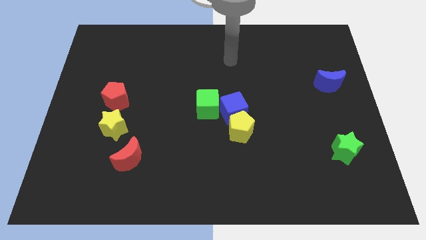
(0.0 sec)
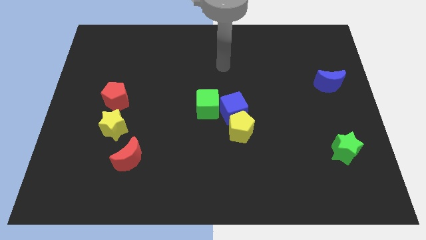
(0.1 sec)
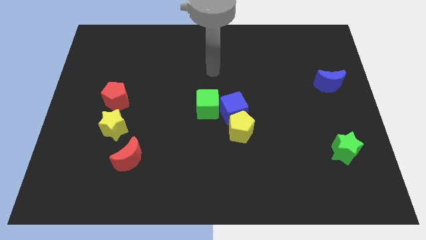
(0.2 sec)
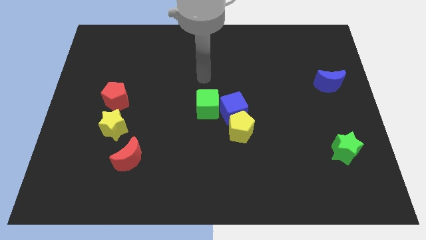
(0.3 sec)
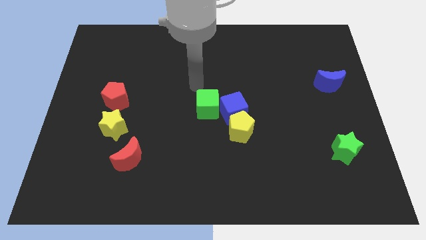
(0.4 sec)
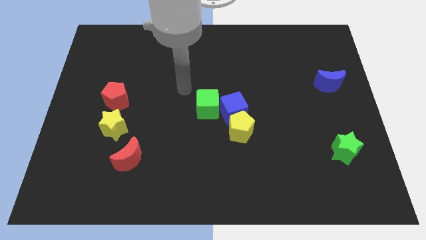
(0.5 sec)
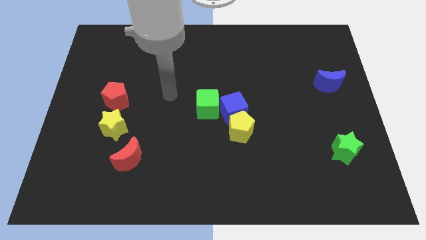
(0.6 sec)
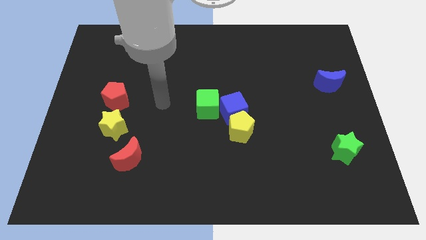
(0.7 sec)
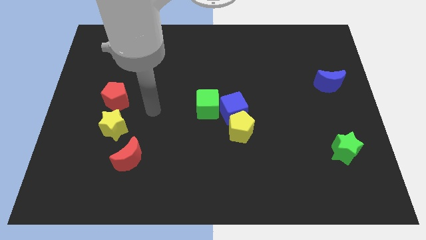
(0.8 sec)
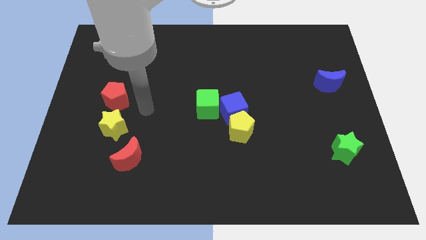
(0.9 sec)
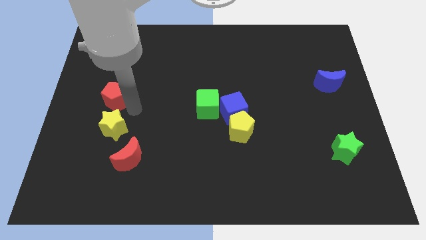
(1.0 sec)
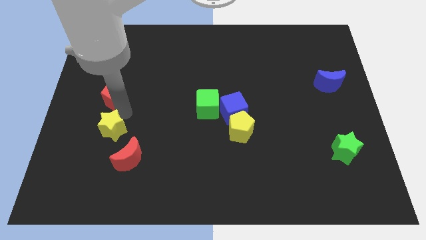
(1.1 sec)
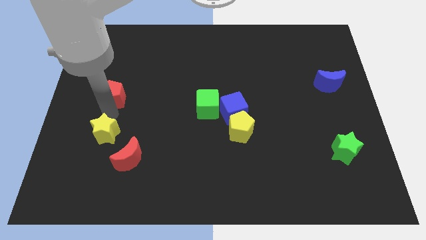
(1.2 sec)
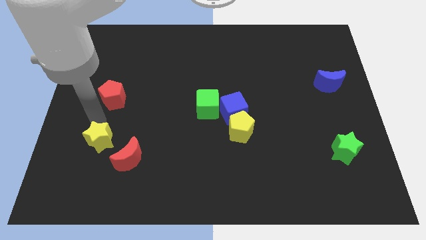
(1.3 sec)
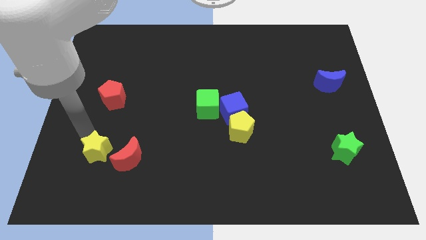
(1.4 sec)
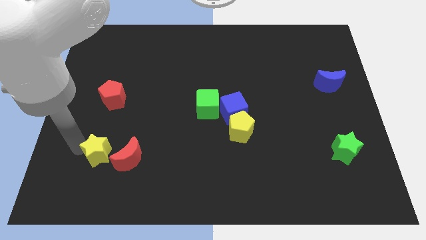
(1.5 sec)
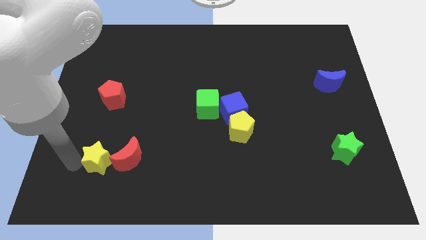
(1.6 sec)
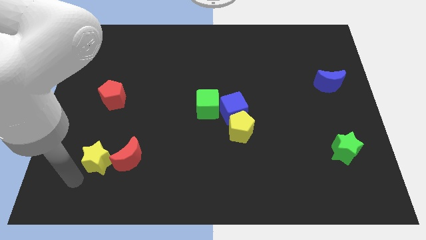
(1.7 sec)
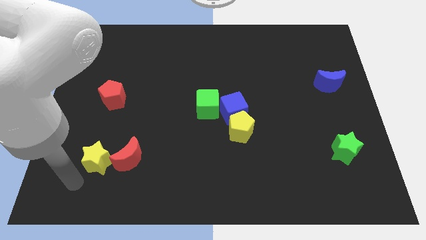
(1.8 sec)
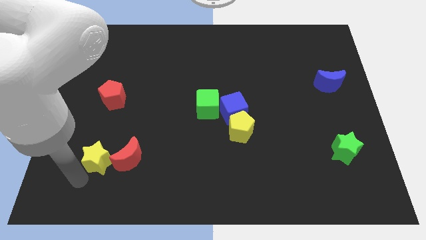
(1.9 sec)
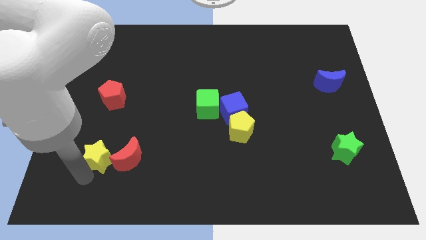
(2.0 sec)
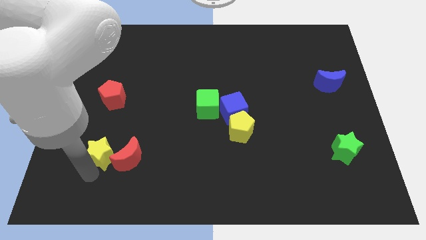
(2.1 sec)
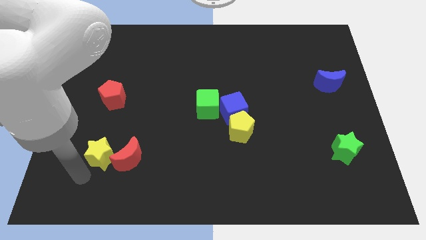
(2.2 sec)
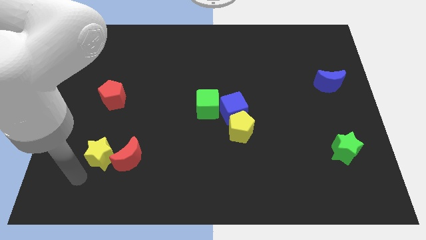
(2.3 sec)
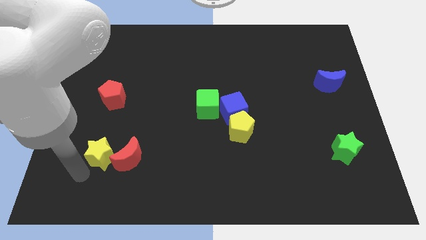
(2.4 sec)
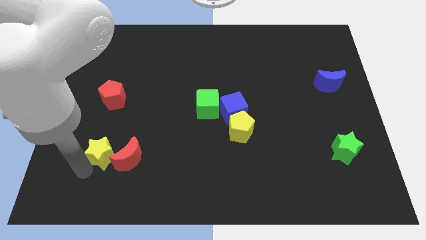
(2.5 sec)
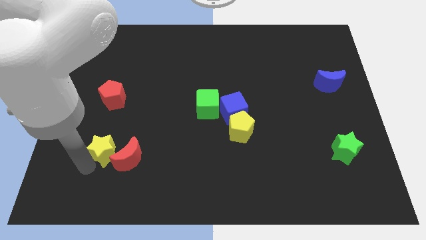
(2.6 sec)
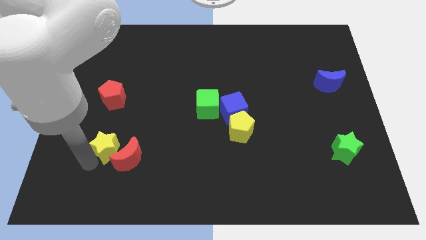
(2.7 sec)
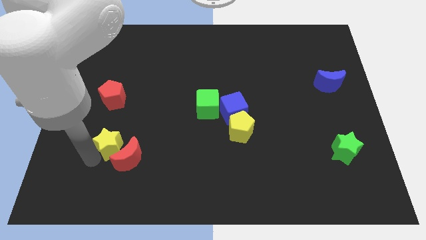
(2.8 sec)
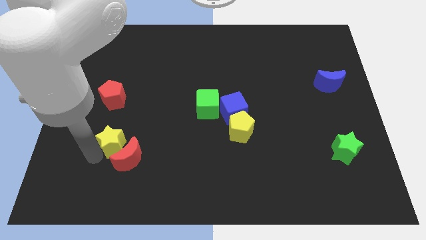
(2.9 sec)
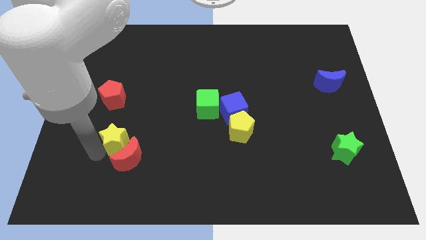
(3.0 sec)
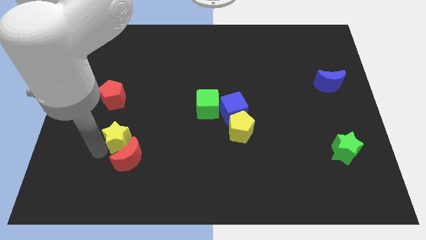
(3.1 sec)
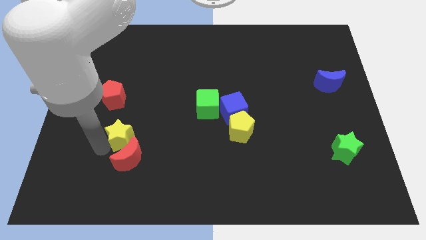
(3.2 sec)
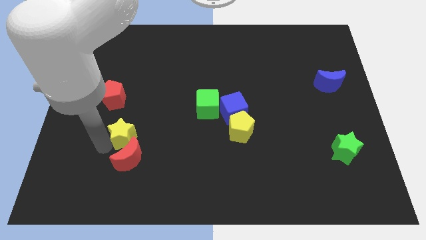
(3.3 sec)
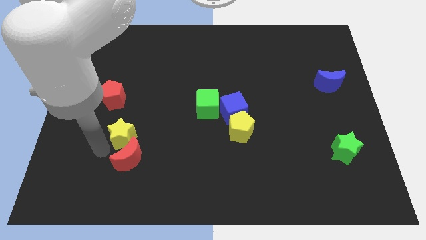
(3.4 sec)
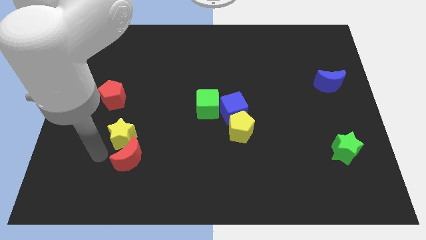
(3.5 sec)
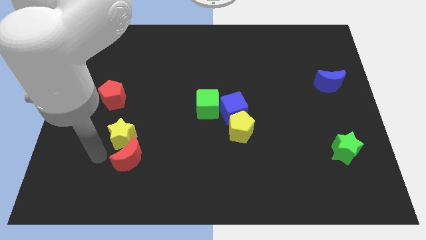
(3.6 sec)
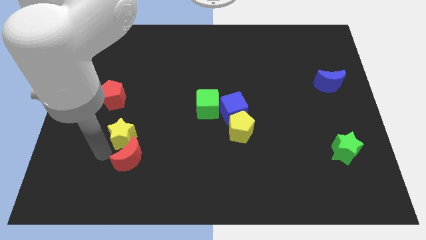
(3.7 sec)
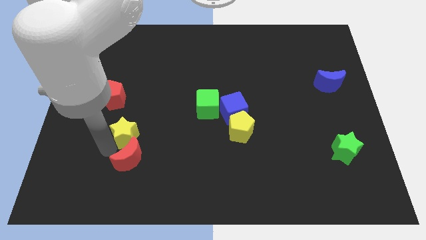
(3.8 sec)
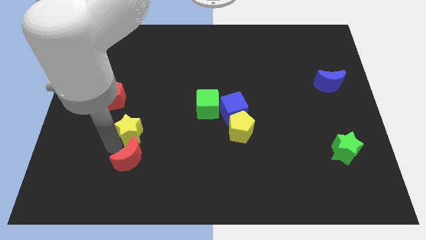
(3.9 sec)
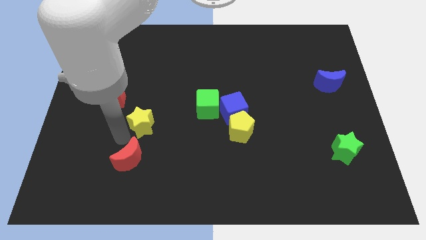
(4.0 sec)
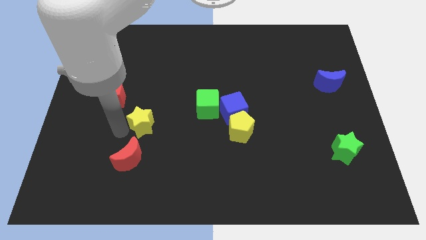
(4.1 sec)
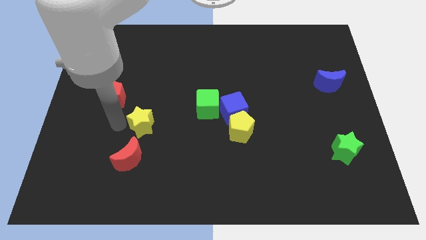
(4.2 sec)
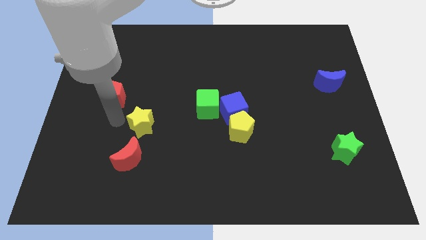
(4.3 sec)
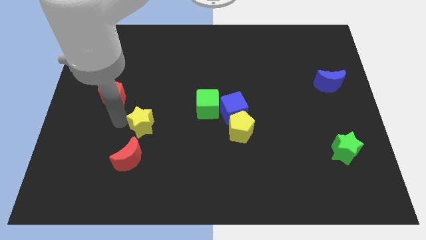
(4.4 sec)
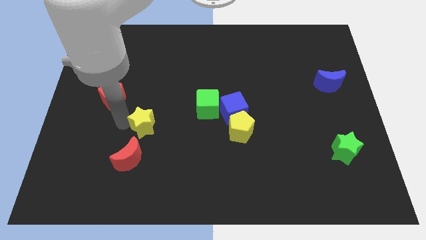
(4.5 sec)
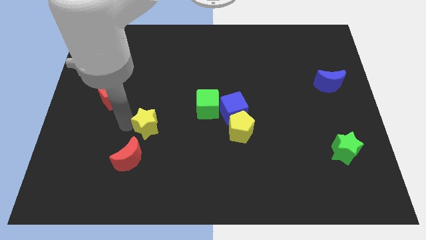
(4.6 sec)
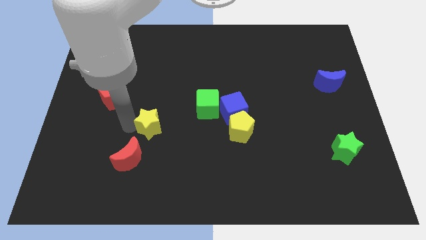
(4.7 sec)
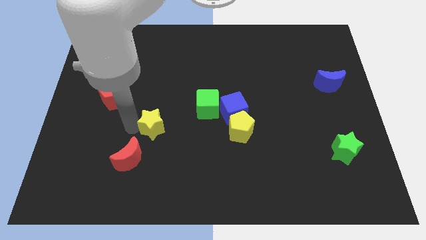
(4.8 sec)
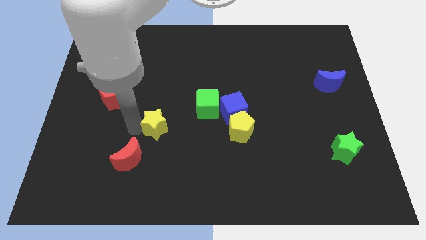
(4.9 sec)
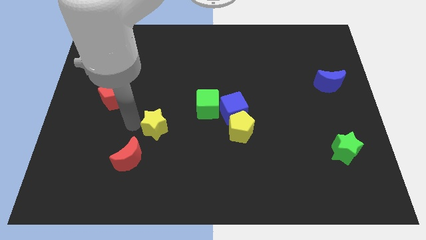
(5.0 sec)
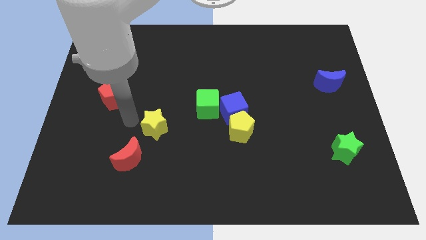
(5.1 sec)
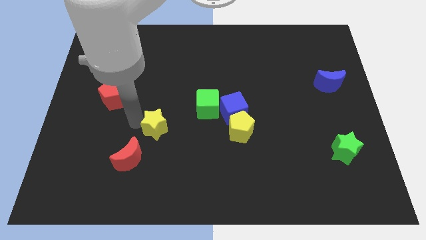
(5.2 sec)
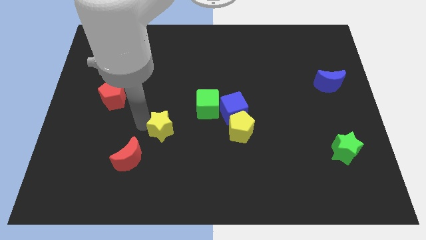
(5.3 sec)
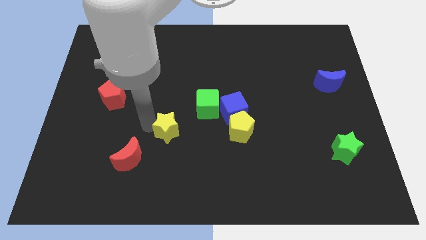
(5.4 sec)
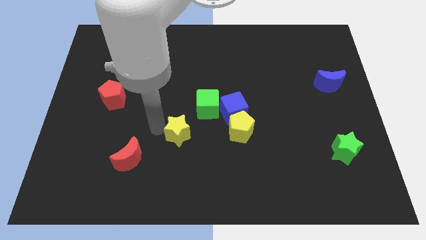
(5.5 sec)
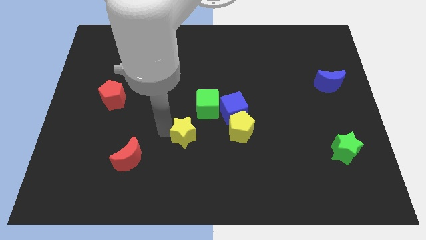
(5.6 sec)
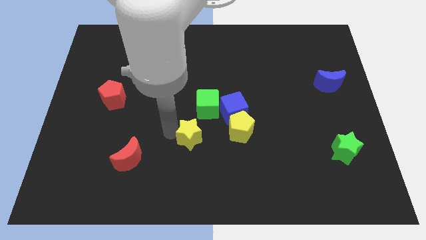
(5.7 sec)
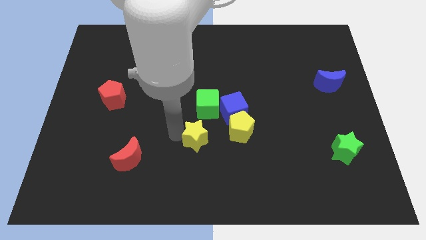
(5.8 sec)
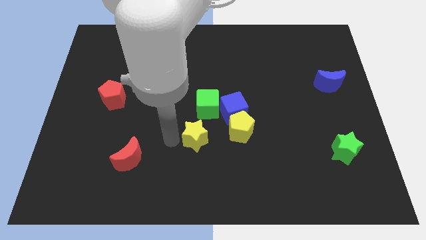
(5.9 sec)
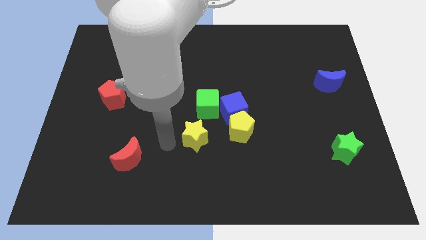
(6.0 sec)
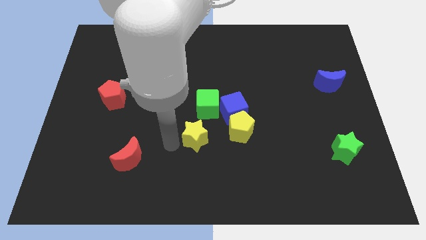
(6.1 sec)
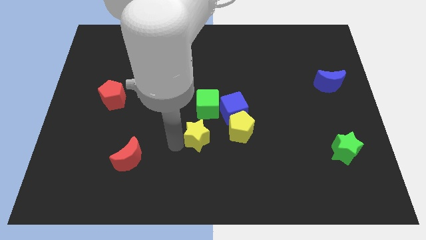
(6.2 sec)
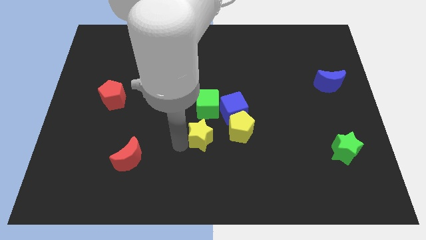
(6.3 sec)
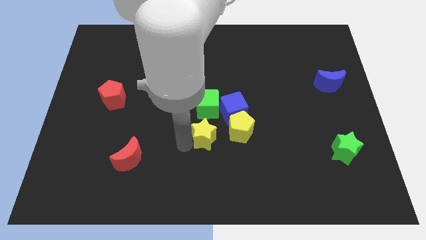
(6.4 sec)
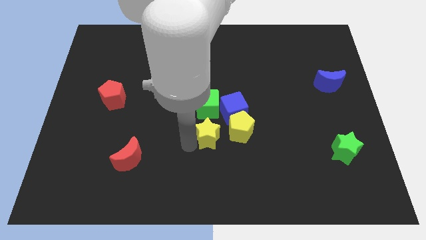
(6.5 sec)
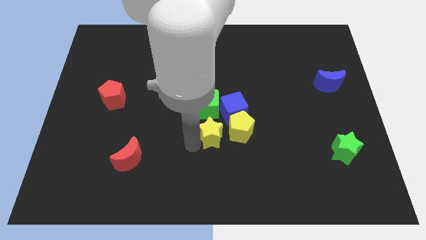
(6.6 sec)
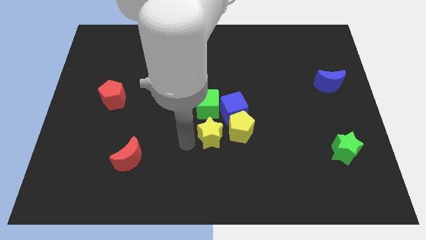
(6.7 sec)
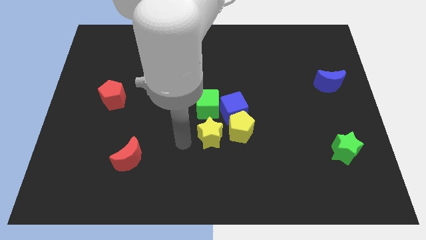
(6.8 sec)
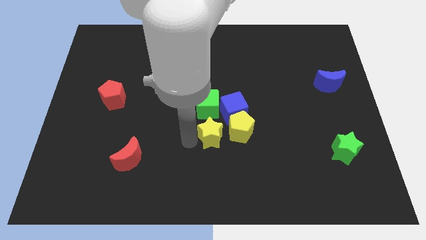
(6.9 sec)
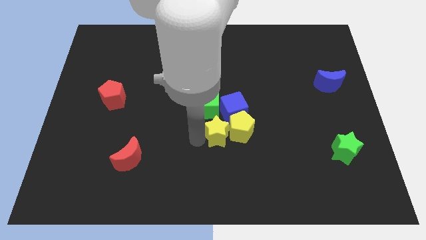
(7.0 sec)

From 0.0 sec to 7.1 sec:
slide the yellow star to the yellow pentagon

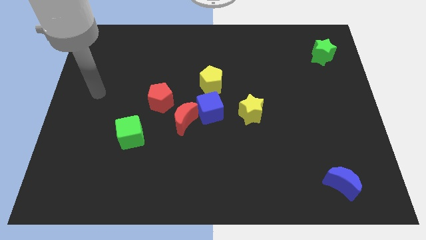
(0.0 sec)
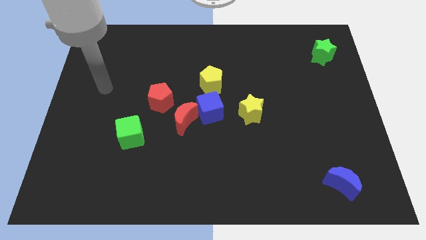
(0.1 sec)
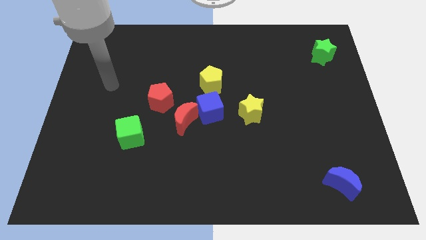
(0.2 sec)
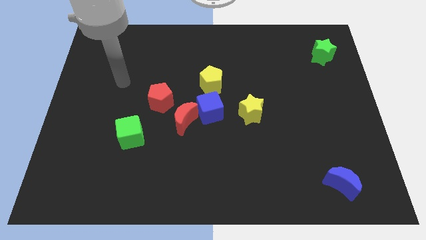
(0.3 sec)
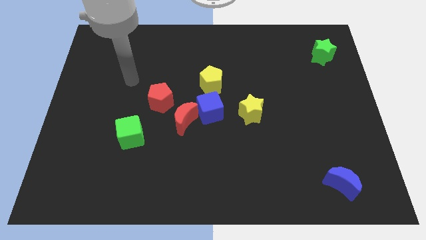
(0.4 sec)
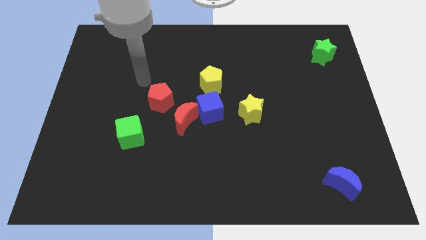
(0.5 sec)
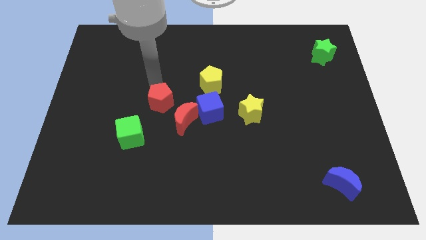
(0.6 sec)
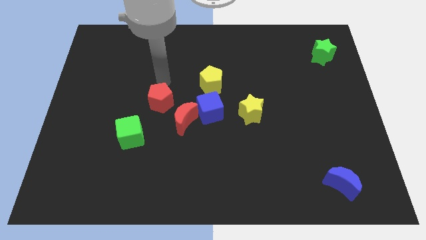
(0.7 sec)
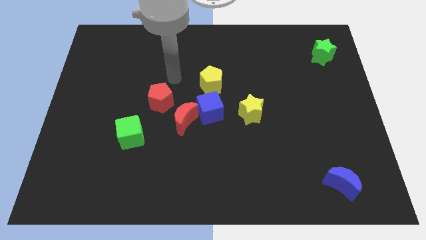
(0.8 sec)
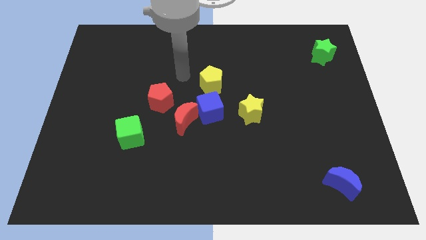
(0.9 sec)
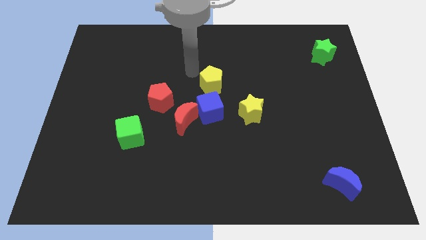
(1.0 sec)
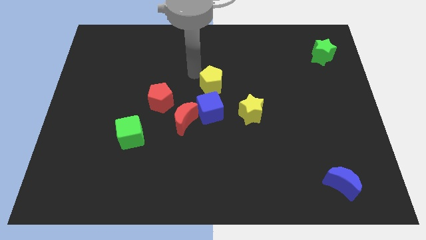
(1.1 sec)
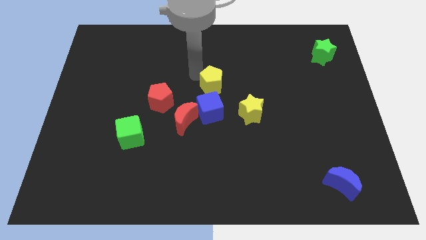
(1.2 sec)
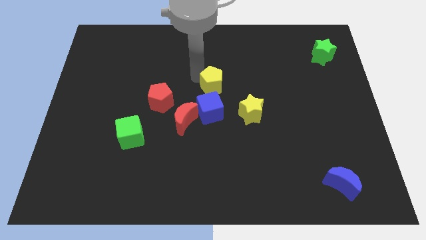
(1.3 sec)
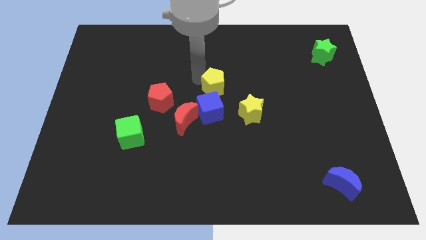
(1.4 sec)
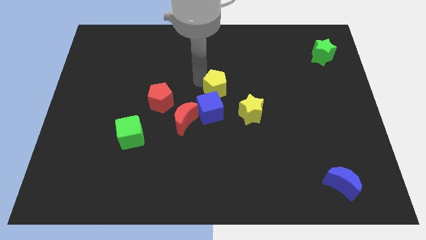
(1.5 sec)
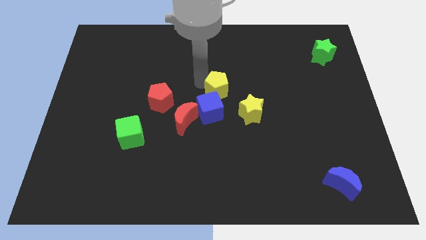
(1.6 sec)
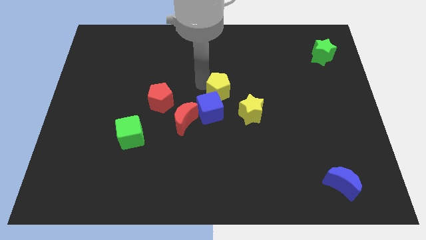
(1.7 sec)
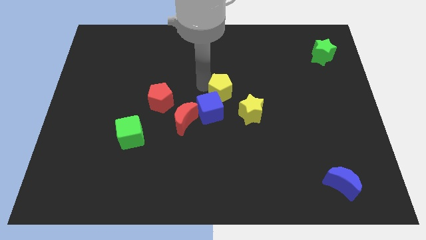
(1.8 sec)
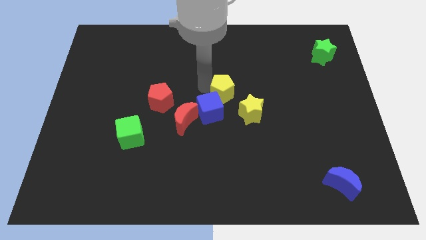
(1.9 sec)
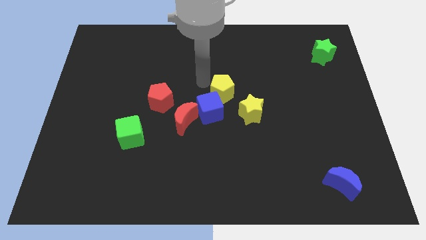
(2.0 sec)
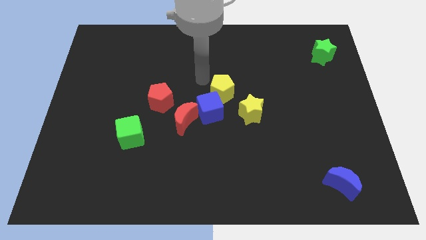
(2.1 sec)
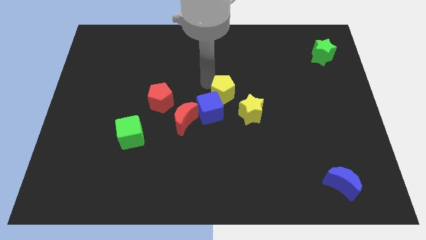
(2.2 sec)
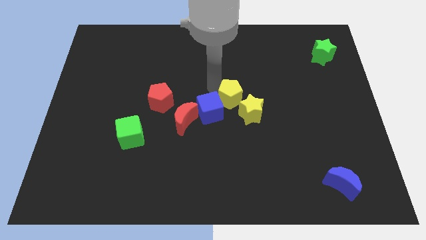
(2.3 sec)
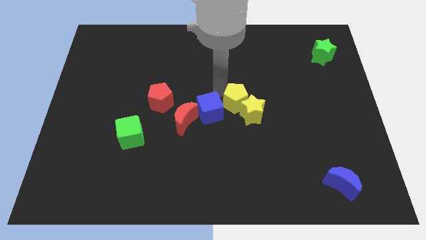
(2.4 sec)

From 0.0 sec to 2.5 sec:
push the yellow pentagon next to the yellow star
